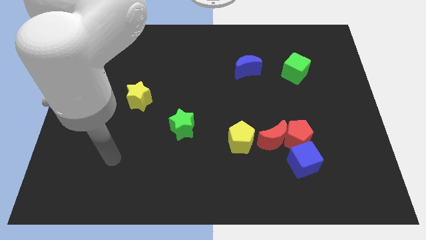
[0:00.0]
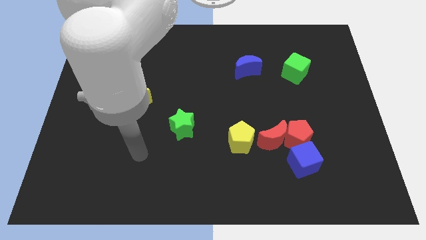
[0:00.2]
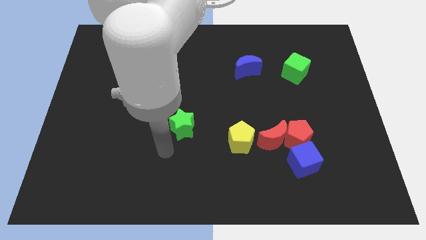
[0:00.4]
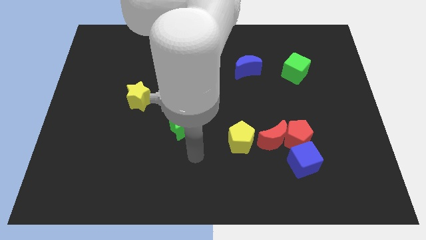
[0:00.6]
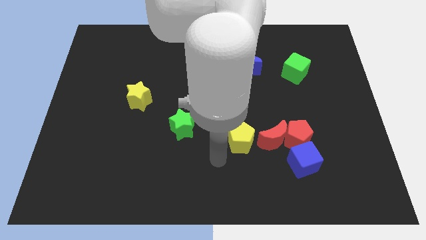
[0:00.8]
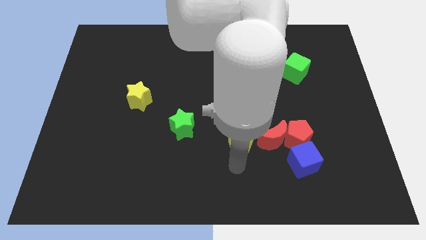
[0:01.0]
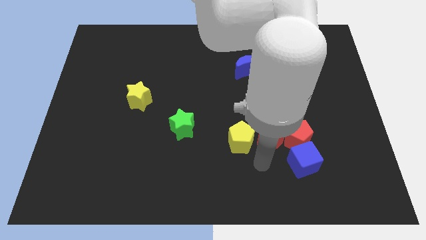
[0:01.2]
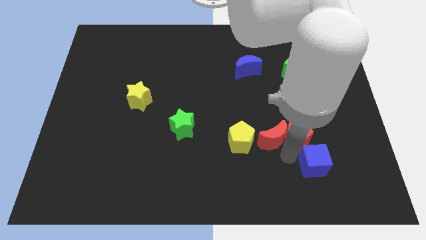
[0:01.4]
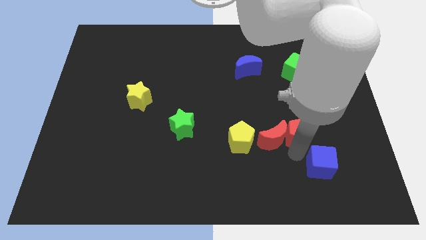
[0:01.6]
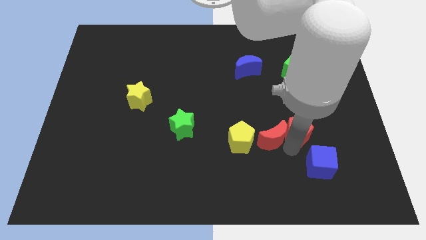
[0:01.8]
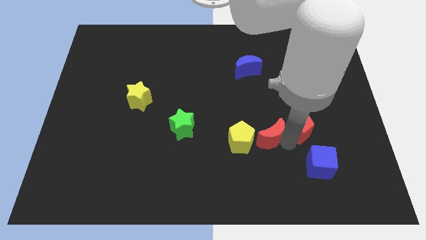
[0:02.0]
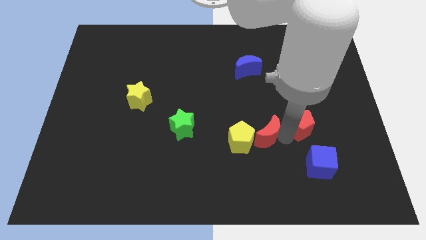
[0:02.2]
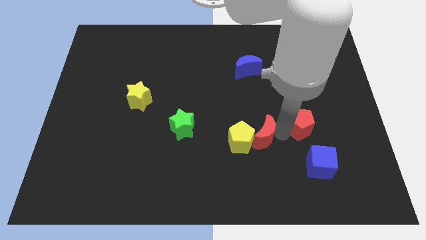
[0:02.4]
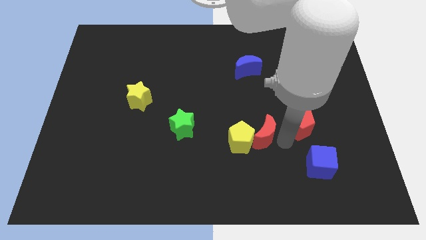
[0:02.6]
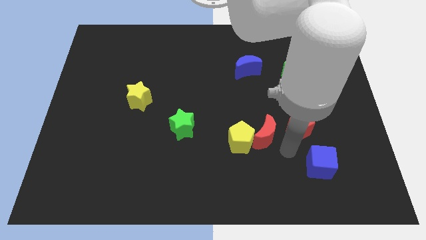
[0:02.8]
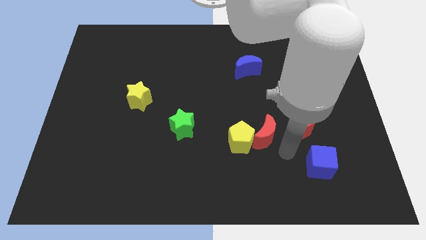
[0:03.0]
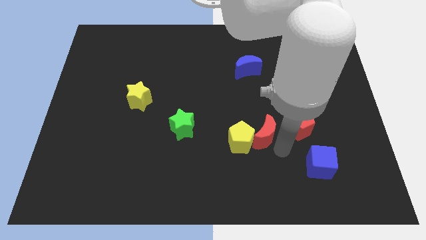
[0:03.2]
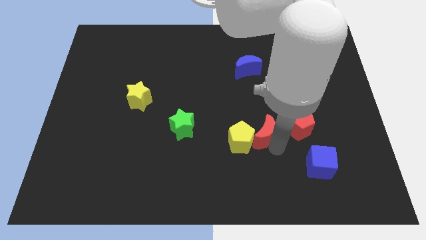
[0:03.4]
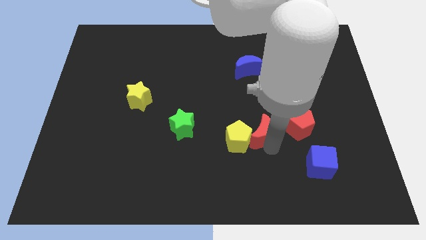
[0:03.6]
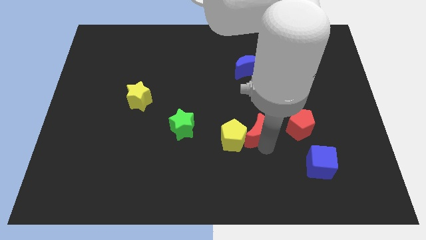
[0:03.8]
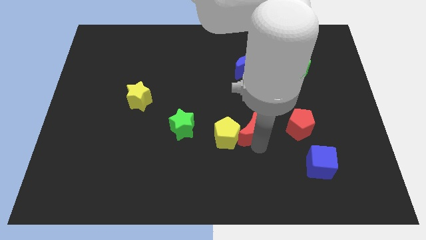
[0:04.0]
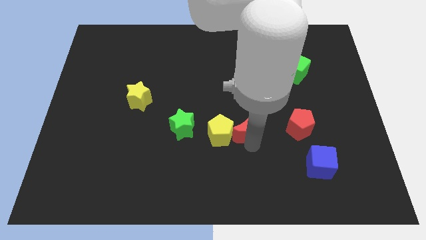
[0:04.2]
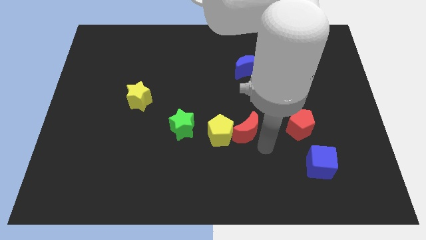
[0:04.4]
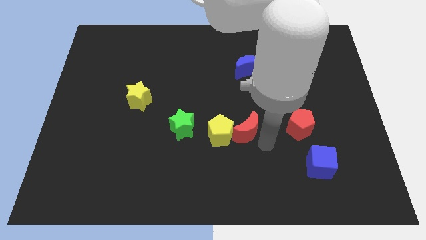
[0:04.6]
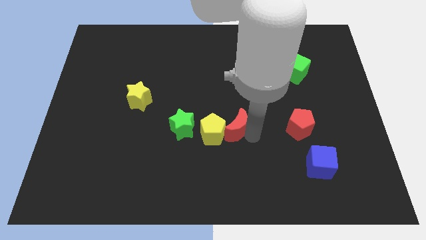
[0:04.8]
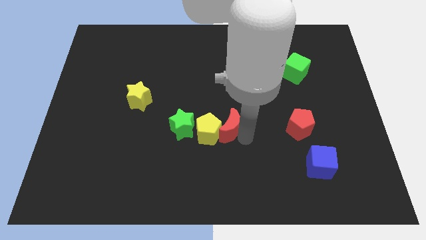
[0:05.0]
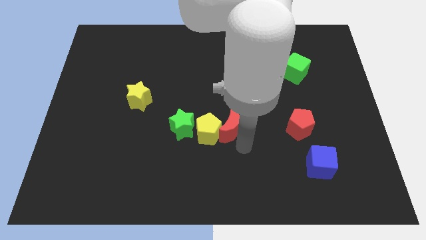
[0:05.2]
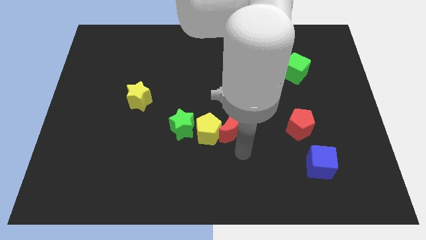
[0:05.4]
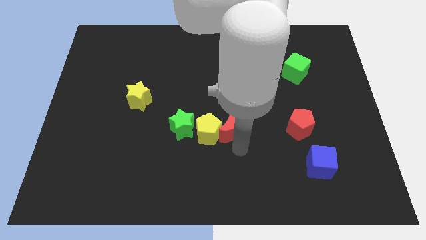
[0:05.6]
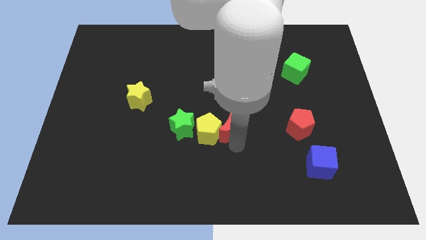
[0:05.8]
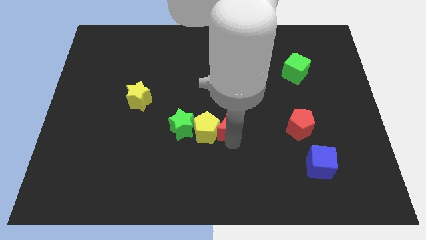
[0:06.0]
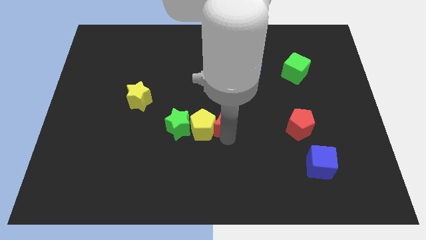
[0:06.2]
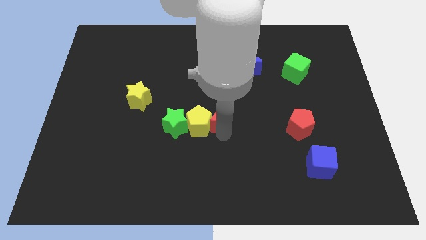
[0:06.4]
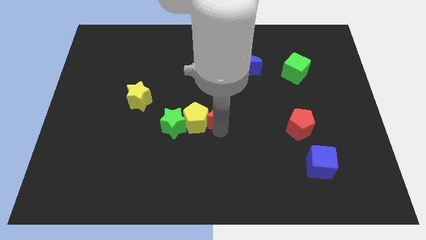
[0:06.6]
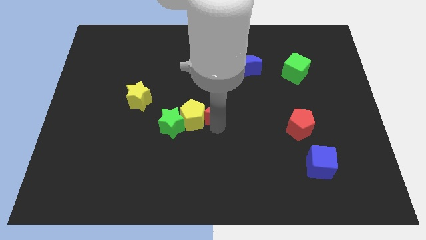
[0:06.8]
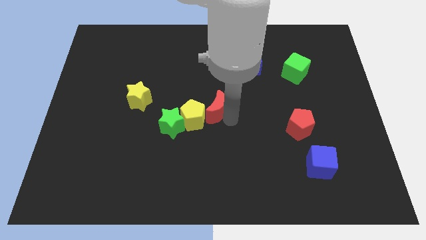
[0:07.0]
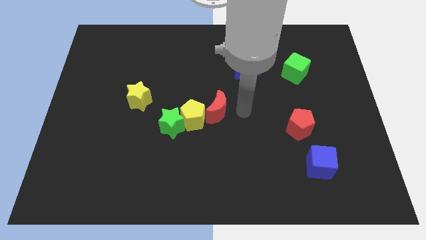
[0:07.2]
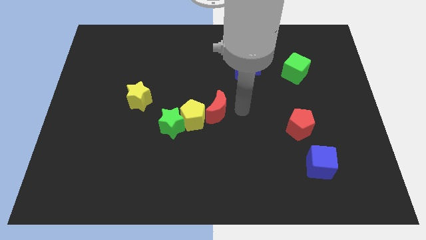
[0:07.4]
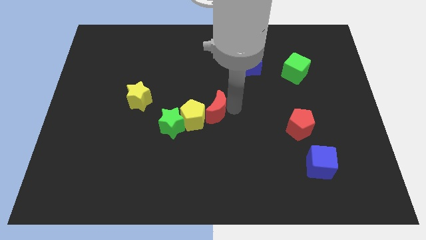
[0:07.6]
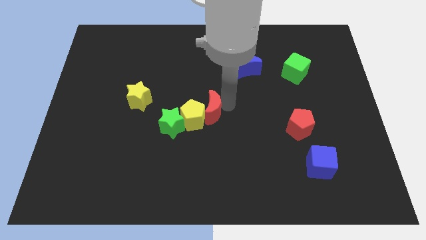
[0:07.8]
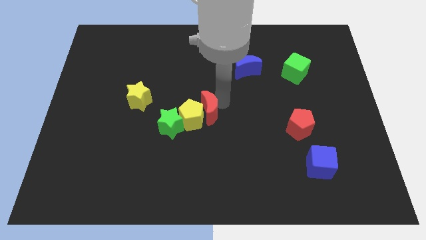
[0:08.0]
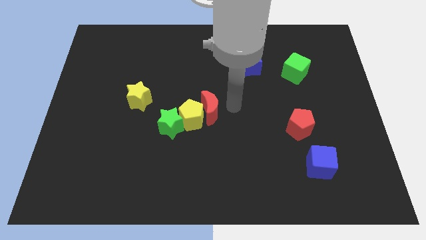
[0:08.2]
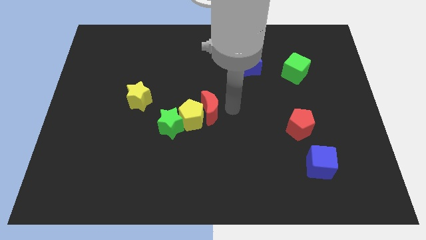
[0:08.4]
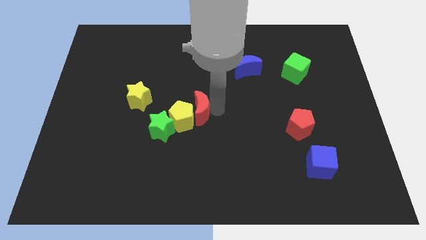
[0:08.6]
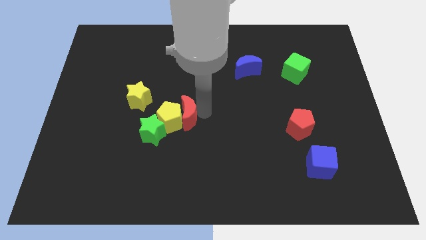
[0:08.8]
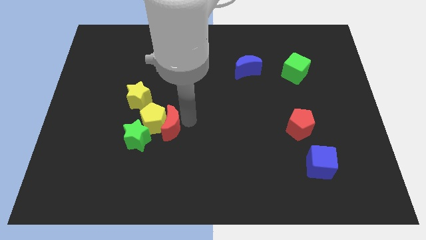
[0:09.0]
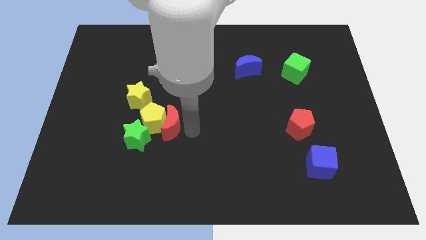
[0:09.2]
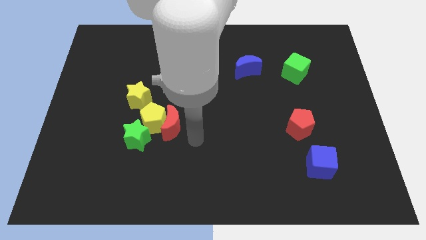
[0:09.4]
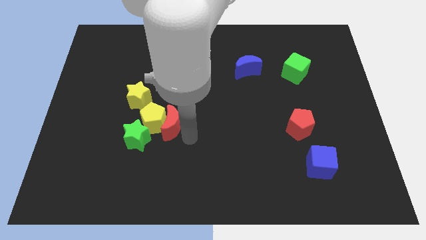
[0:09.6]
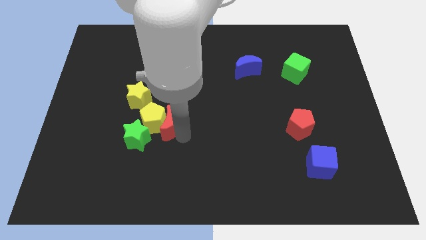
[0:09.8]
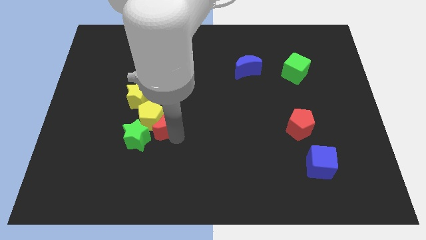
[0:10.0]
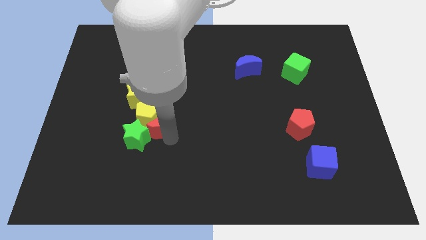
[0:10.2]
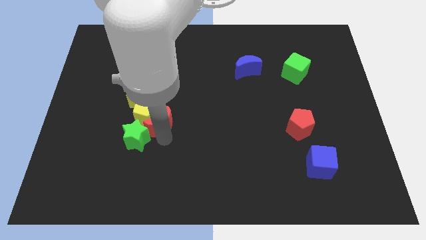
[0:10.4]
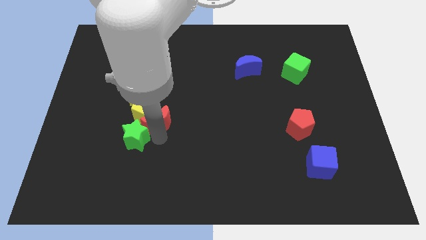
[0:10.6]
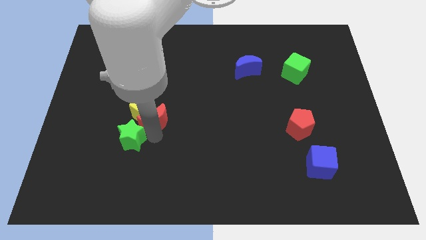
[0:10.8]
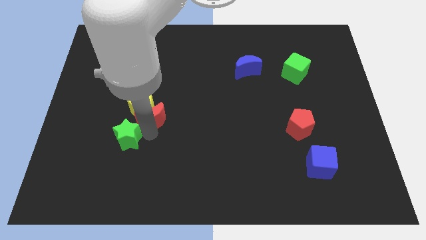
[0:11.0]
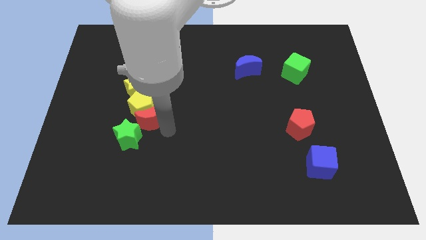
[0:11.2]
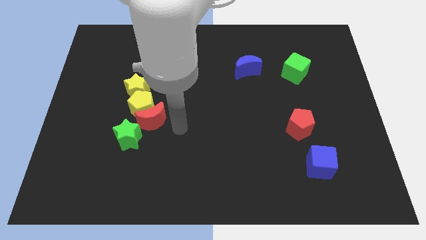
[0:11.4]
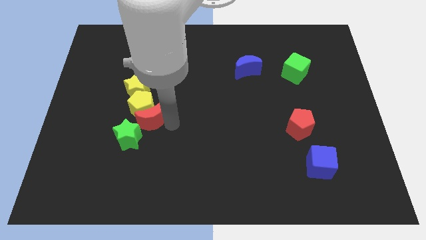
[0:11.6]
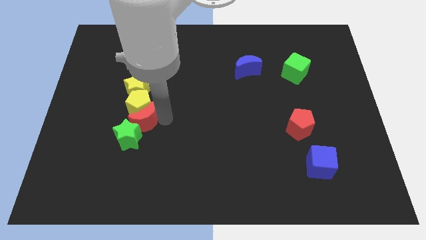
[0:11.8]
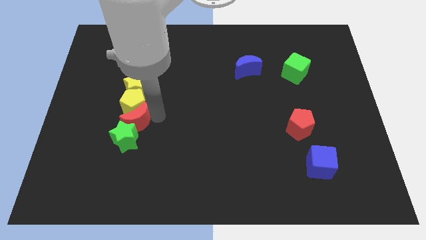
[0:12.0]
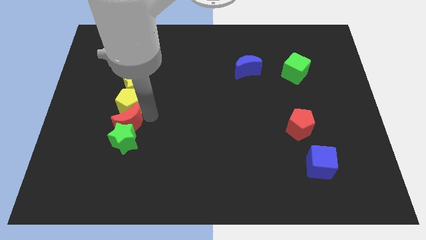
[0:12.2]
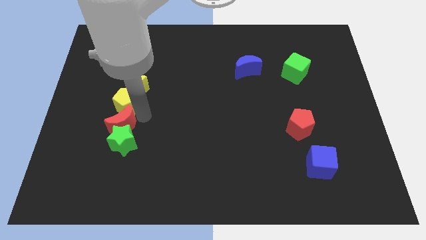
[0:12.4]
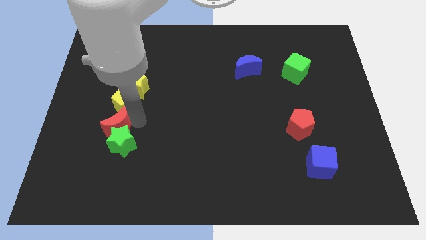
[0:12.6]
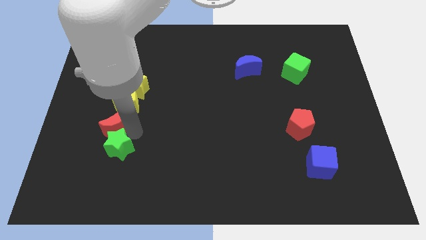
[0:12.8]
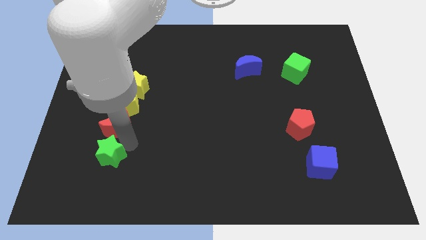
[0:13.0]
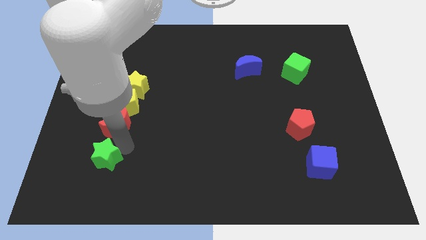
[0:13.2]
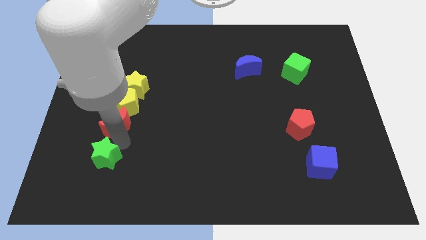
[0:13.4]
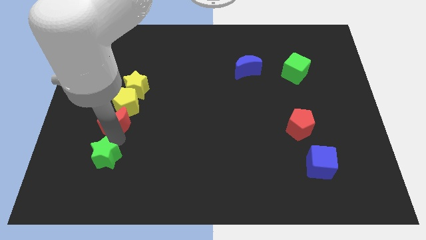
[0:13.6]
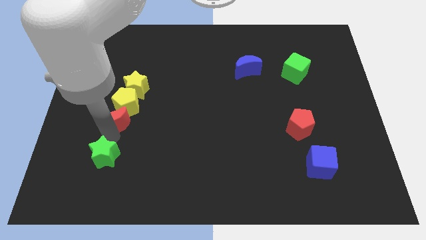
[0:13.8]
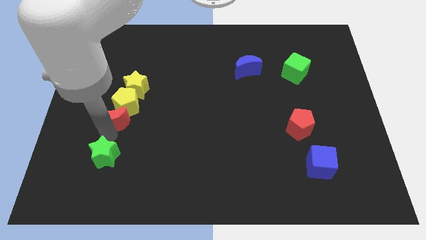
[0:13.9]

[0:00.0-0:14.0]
slide the red moon to the bottom left side of the yellow star
